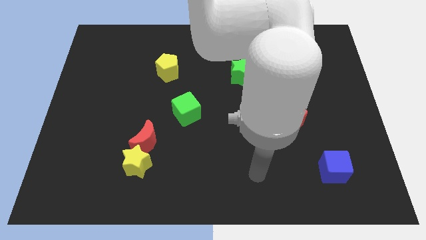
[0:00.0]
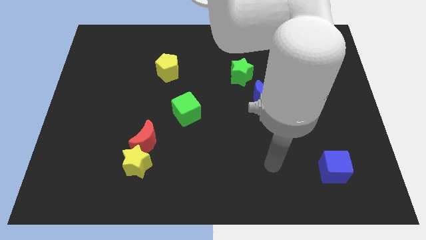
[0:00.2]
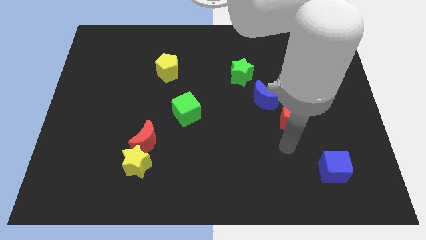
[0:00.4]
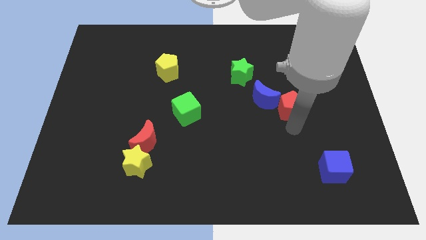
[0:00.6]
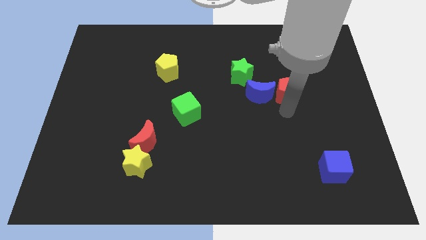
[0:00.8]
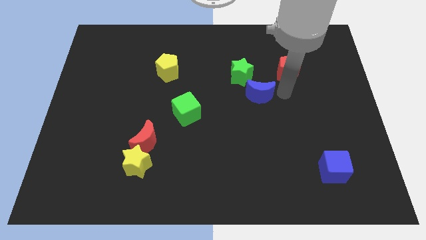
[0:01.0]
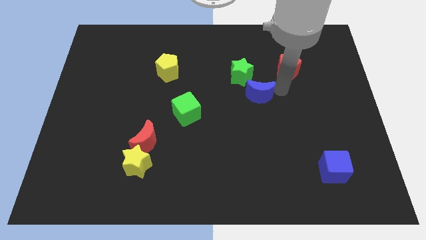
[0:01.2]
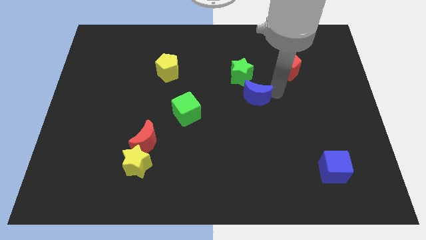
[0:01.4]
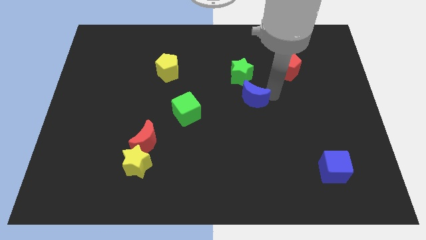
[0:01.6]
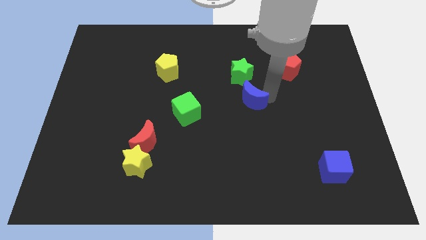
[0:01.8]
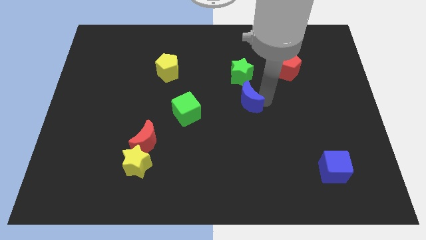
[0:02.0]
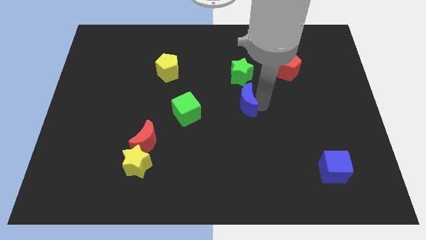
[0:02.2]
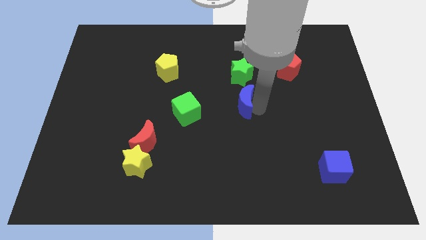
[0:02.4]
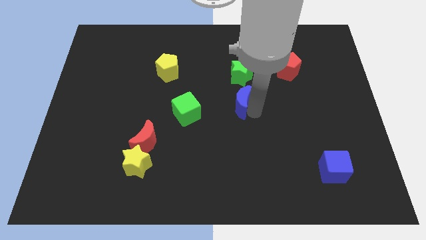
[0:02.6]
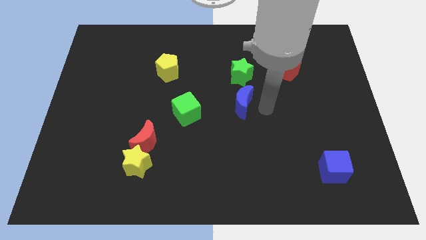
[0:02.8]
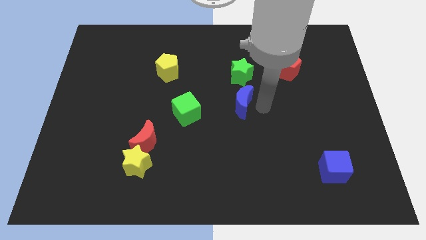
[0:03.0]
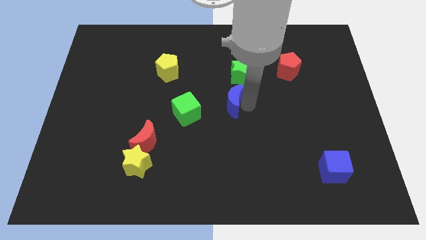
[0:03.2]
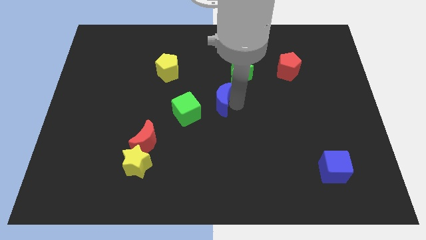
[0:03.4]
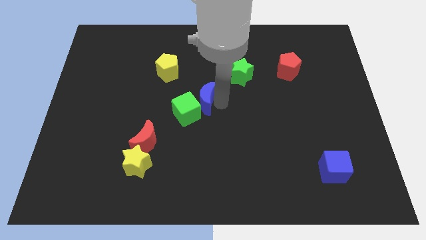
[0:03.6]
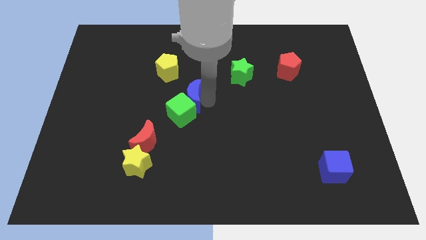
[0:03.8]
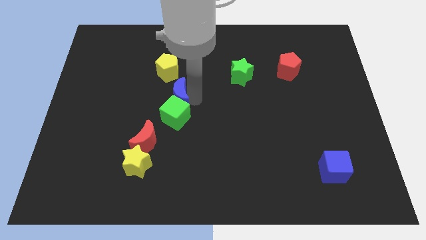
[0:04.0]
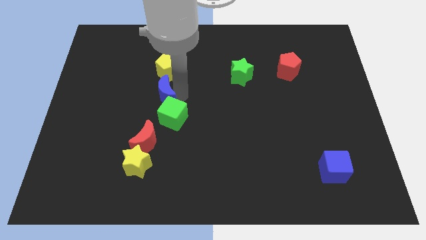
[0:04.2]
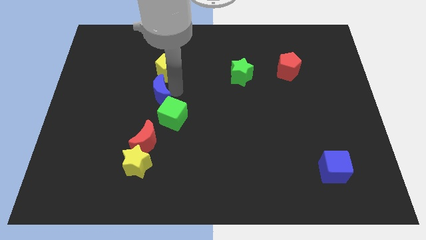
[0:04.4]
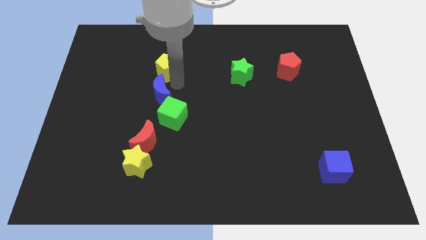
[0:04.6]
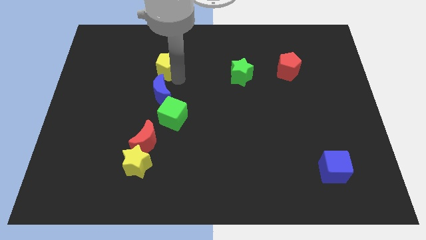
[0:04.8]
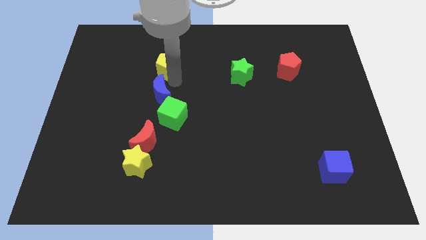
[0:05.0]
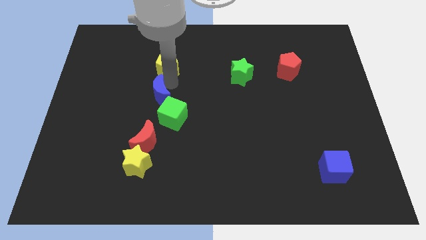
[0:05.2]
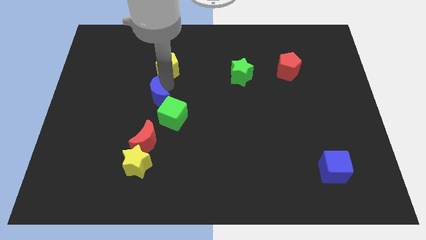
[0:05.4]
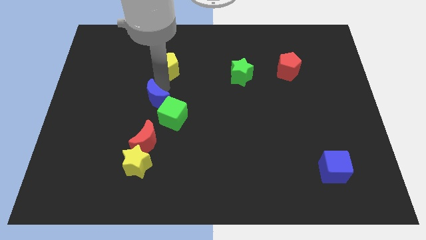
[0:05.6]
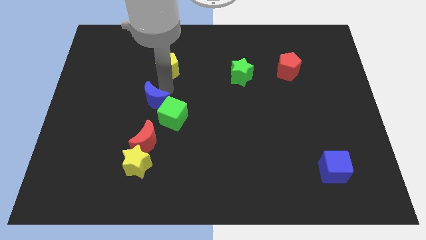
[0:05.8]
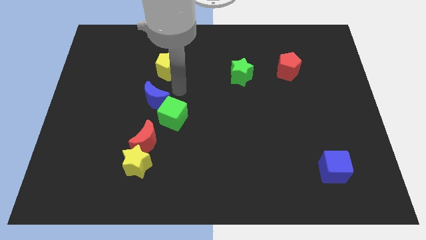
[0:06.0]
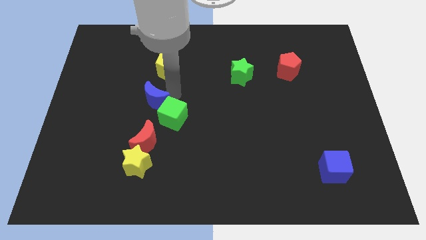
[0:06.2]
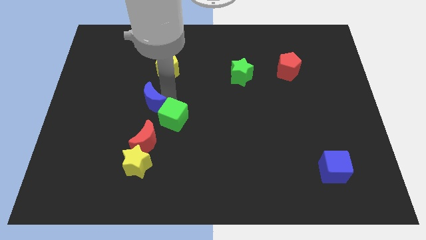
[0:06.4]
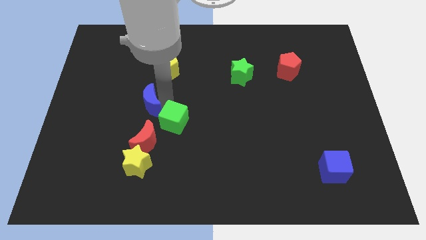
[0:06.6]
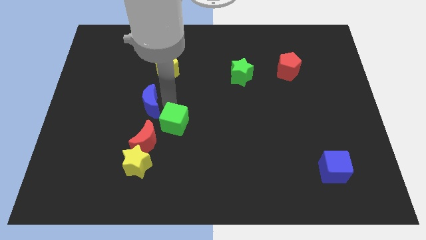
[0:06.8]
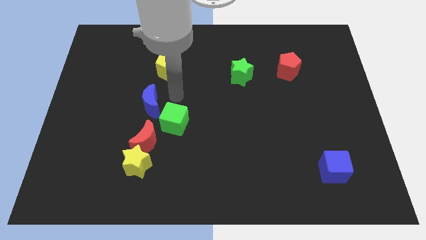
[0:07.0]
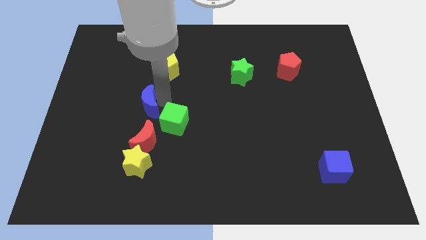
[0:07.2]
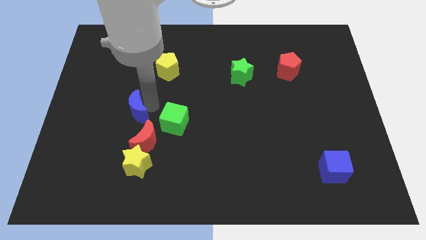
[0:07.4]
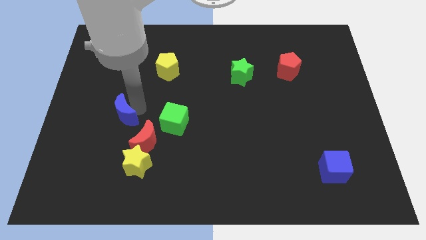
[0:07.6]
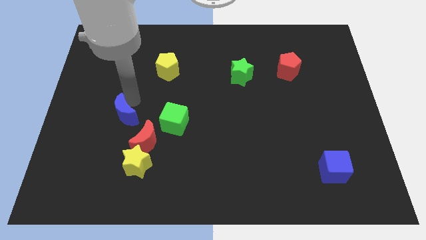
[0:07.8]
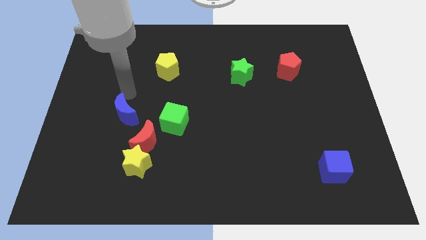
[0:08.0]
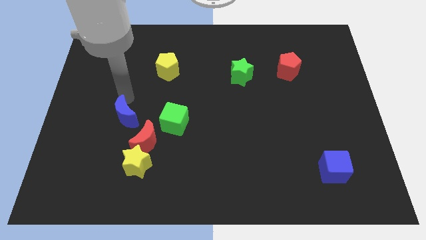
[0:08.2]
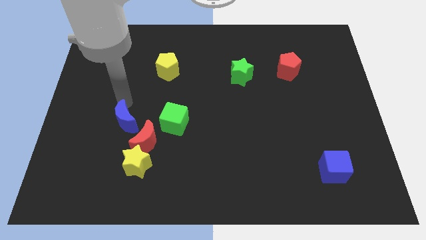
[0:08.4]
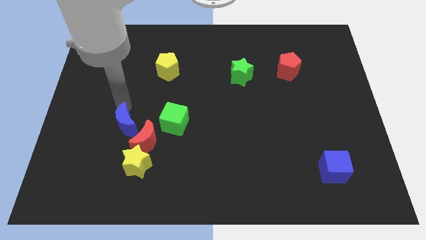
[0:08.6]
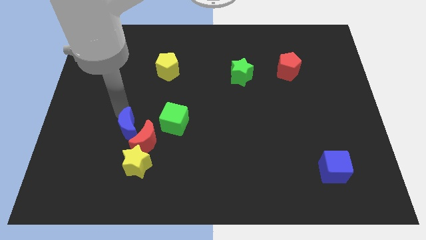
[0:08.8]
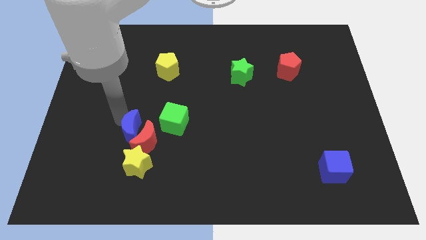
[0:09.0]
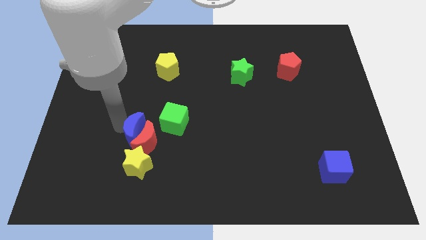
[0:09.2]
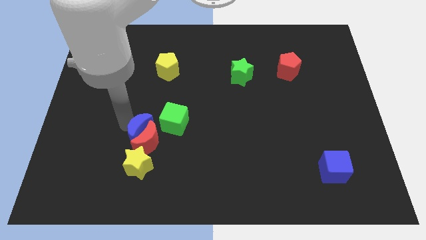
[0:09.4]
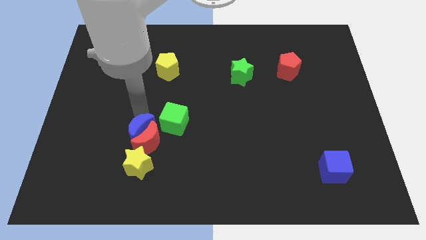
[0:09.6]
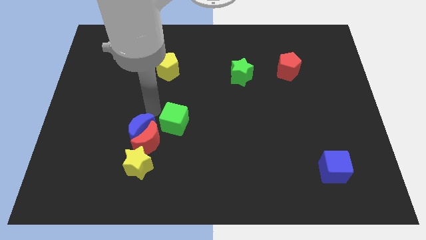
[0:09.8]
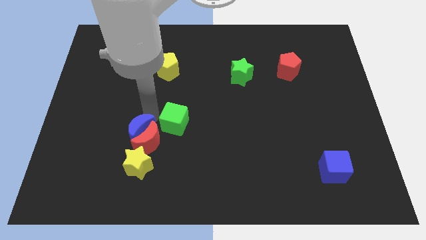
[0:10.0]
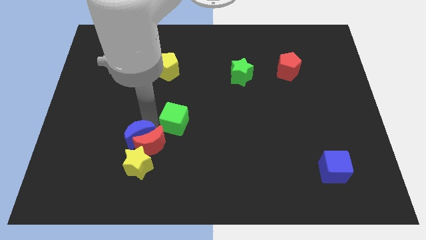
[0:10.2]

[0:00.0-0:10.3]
put the blue moon diagonally down and to the left of the red moon

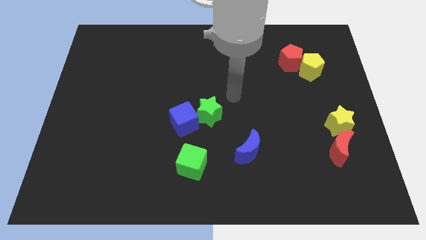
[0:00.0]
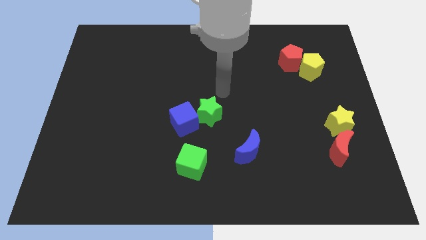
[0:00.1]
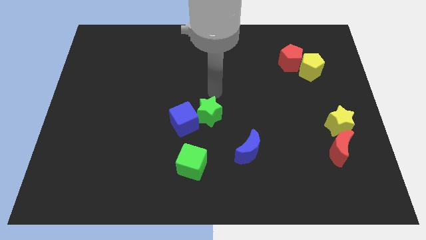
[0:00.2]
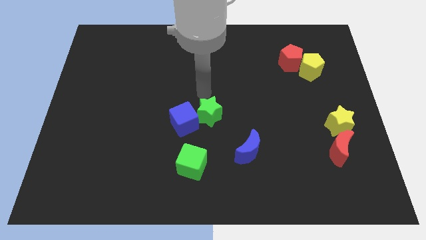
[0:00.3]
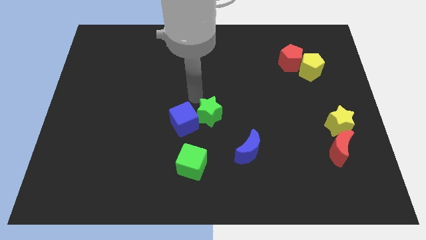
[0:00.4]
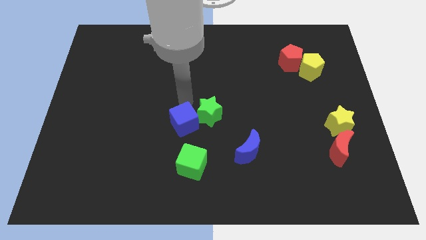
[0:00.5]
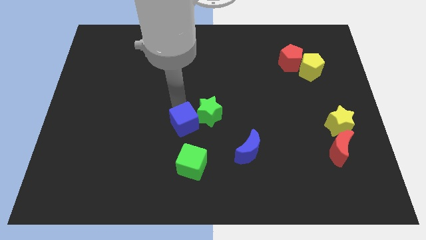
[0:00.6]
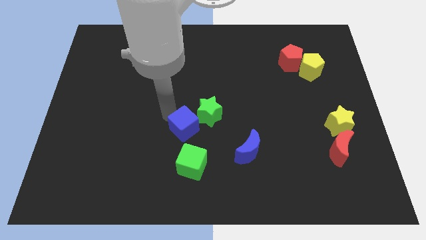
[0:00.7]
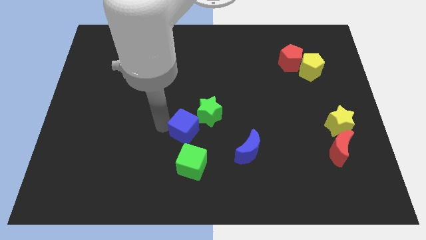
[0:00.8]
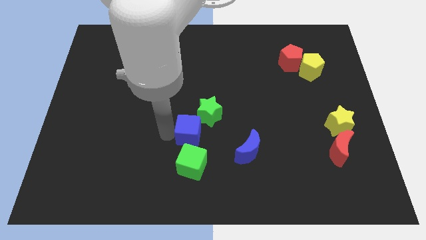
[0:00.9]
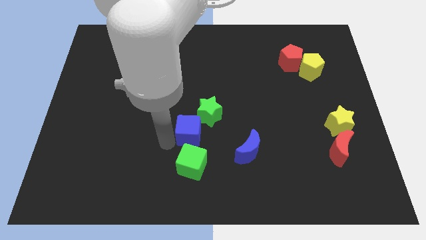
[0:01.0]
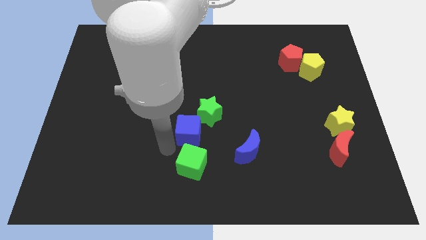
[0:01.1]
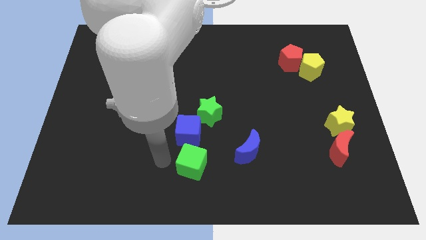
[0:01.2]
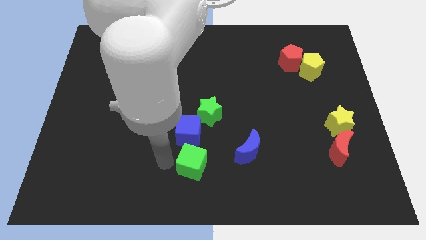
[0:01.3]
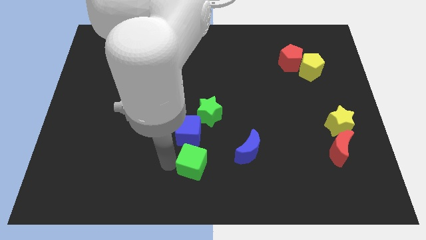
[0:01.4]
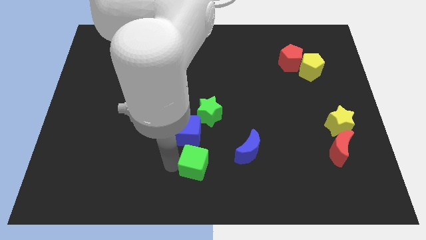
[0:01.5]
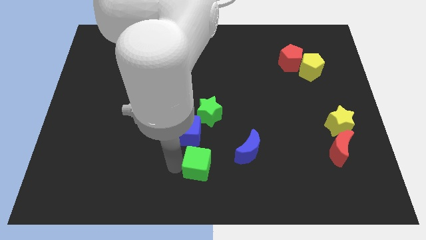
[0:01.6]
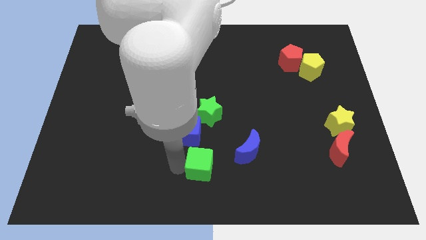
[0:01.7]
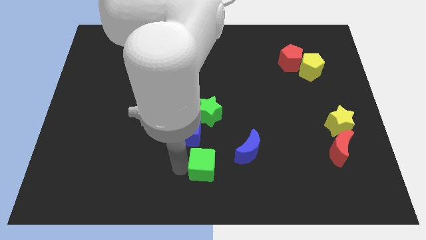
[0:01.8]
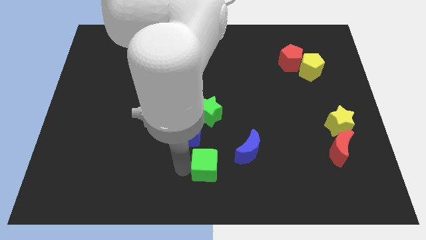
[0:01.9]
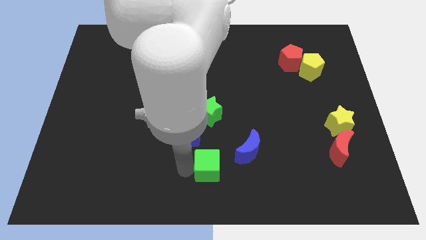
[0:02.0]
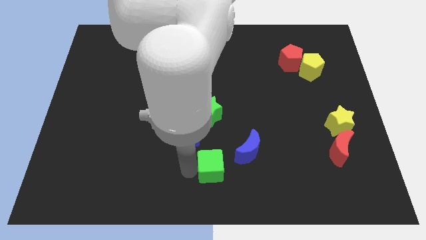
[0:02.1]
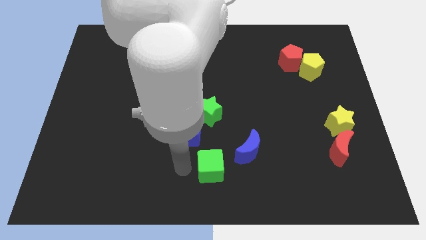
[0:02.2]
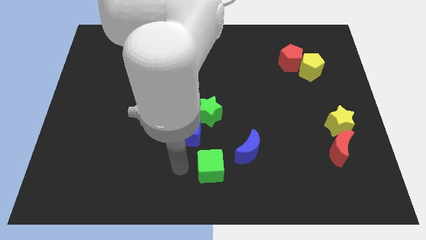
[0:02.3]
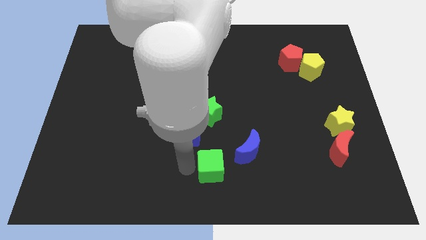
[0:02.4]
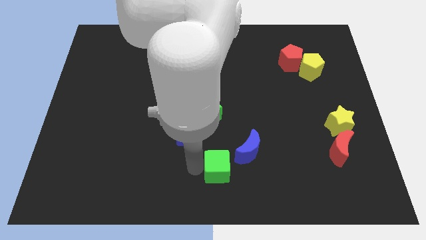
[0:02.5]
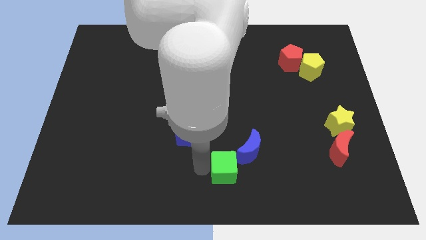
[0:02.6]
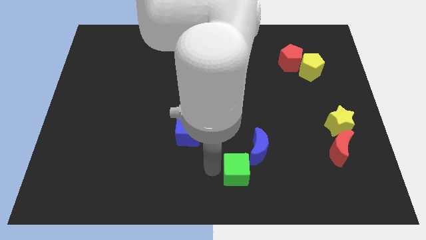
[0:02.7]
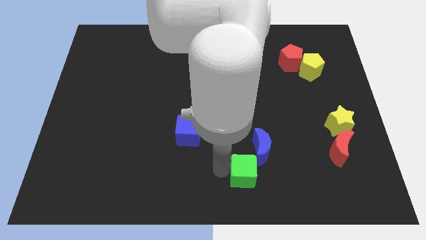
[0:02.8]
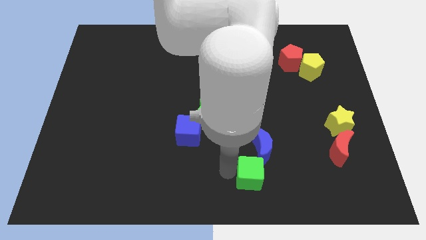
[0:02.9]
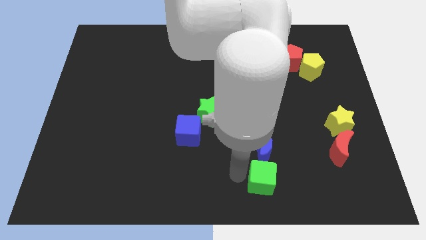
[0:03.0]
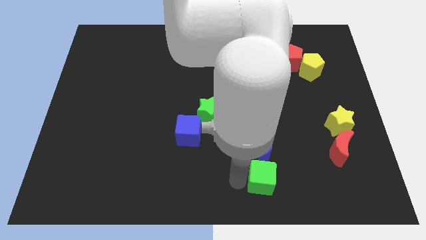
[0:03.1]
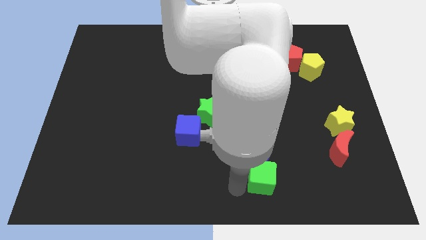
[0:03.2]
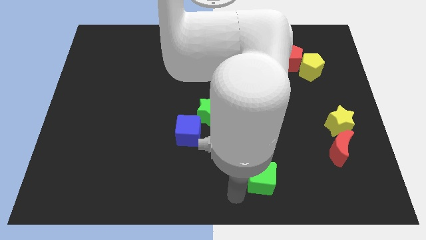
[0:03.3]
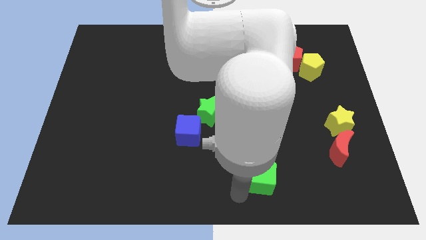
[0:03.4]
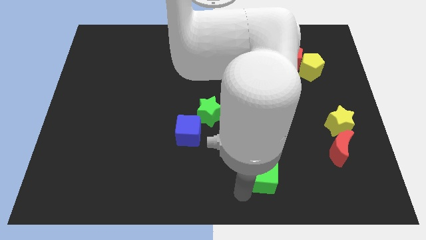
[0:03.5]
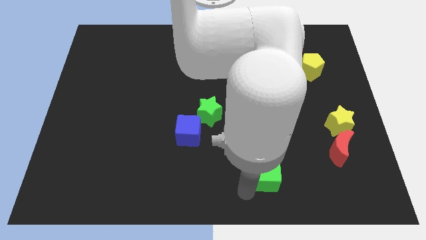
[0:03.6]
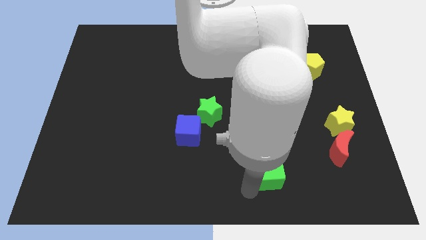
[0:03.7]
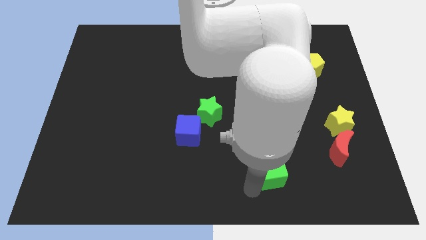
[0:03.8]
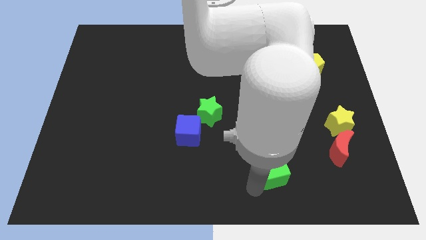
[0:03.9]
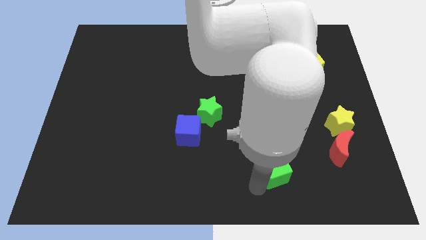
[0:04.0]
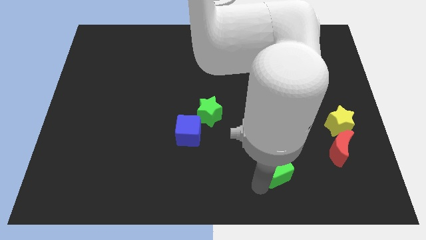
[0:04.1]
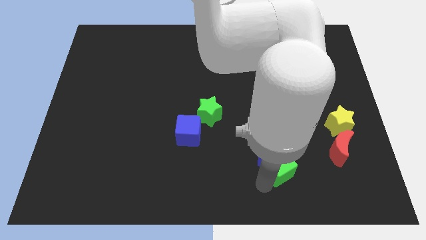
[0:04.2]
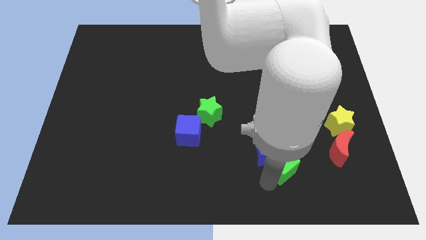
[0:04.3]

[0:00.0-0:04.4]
slide the green cube to the right side of the blue moon
